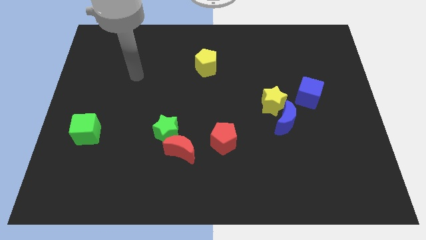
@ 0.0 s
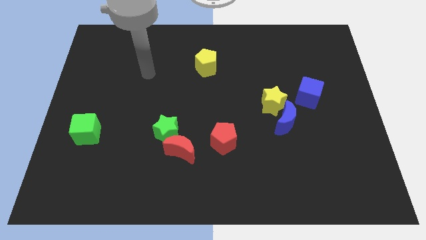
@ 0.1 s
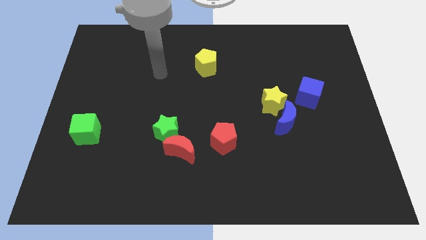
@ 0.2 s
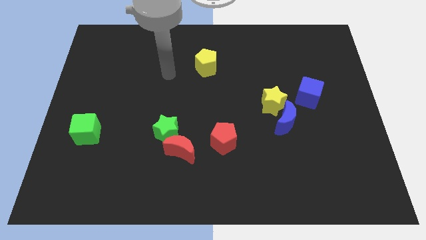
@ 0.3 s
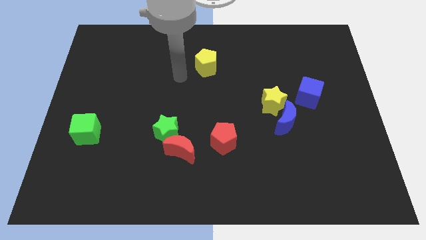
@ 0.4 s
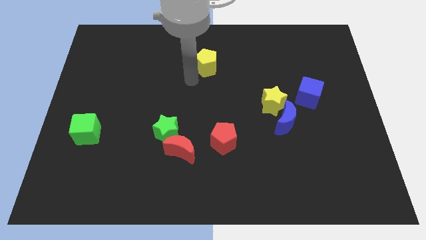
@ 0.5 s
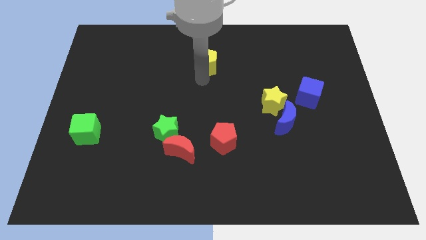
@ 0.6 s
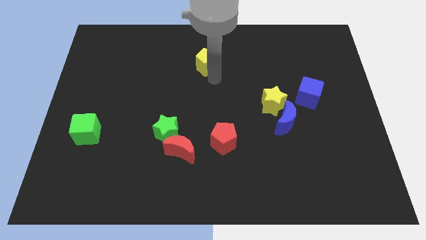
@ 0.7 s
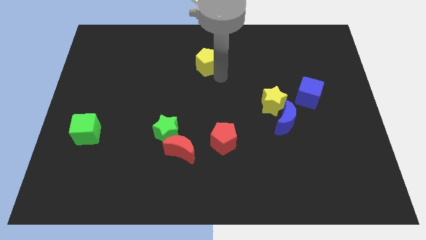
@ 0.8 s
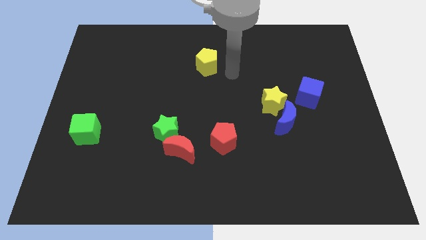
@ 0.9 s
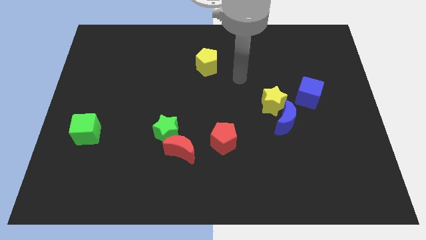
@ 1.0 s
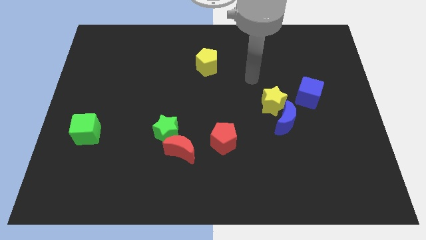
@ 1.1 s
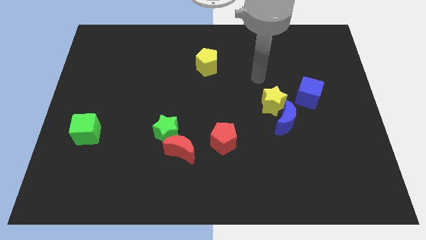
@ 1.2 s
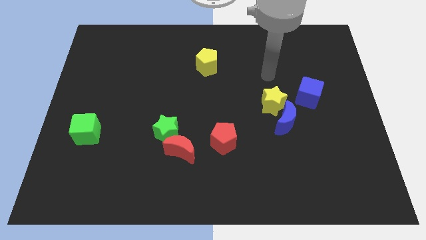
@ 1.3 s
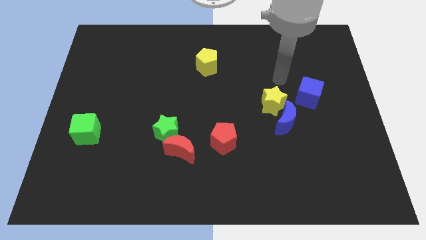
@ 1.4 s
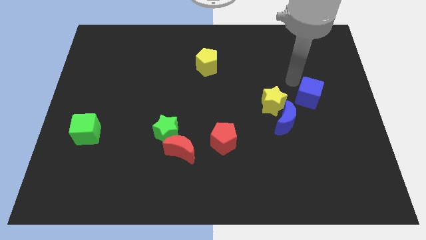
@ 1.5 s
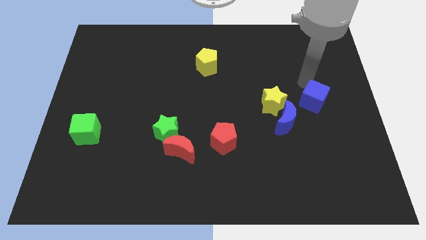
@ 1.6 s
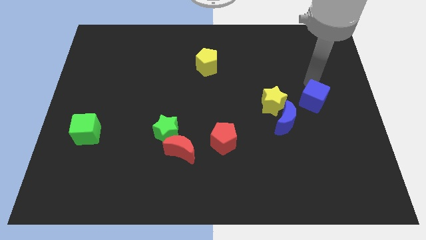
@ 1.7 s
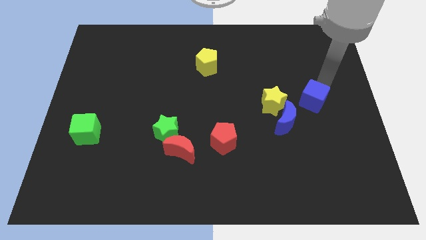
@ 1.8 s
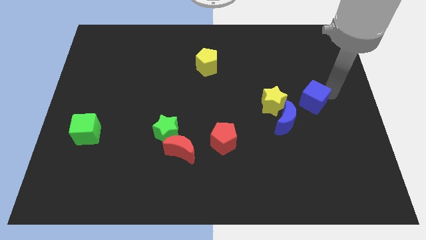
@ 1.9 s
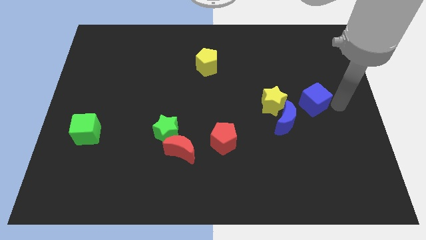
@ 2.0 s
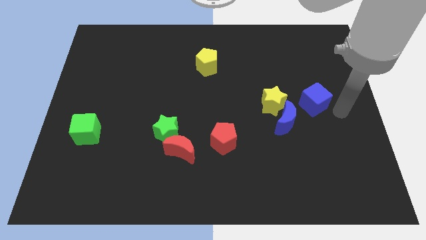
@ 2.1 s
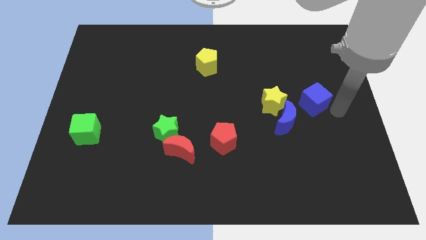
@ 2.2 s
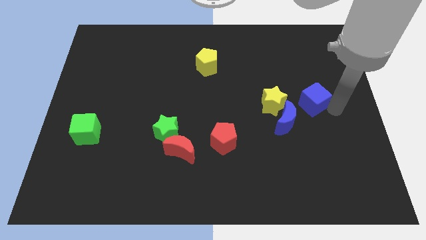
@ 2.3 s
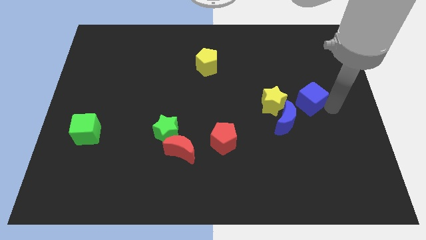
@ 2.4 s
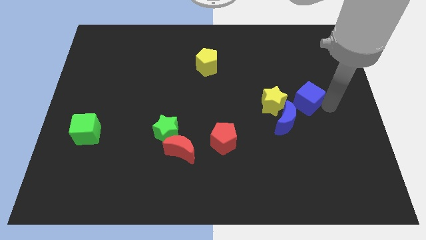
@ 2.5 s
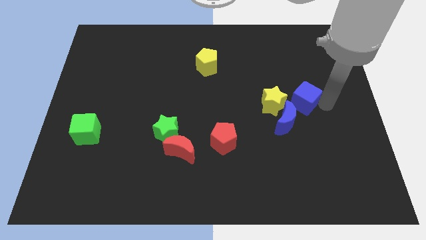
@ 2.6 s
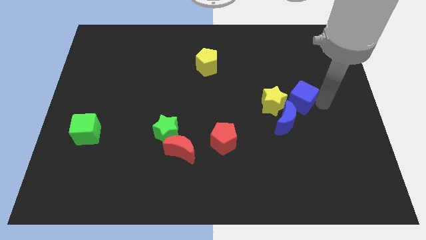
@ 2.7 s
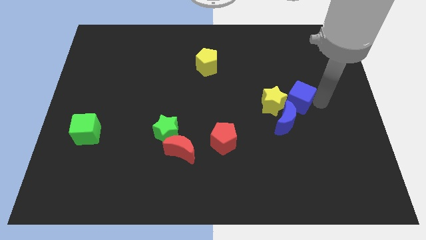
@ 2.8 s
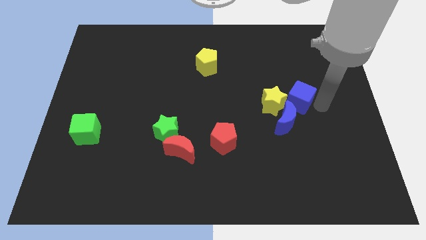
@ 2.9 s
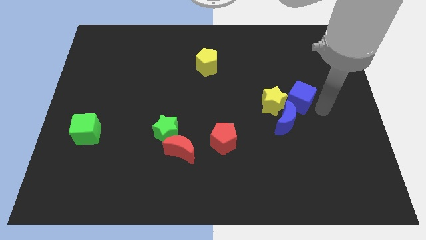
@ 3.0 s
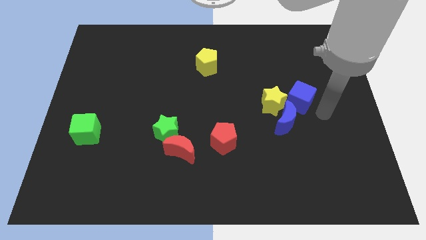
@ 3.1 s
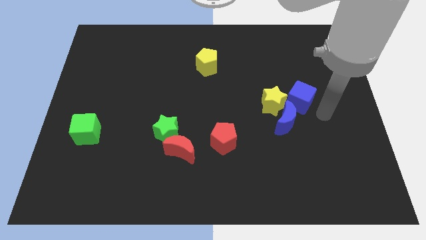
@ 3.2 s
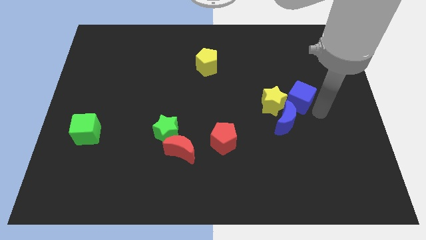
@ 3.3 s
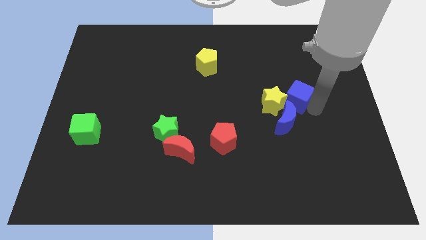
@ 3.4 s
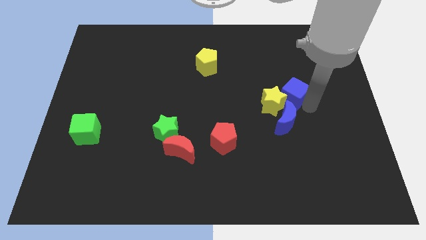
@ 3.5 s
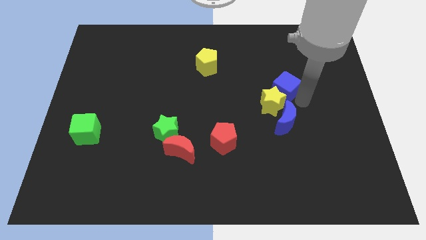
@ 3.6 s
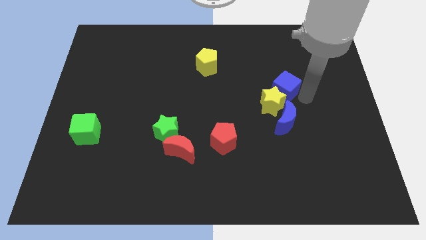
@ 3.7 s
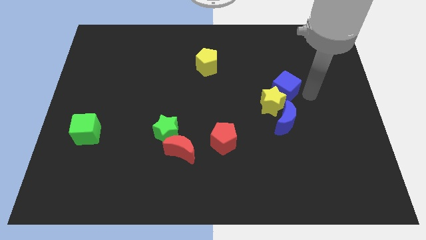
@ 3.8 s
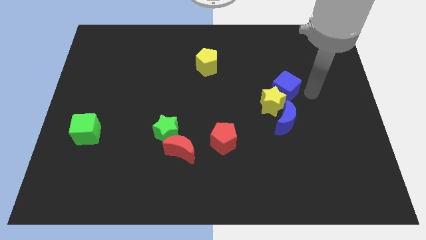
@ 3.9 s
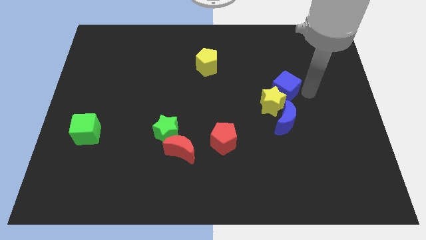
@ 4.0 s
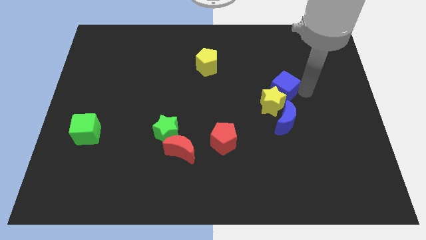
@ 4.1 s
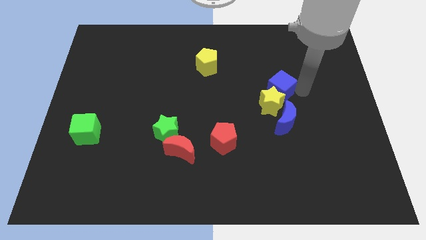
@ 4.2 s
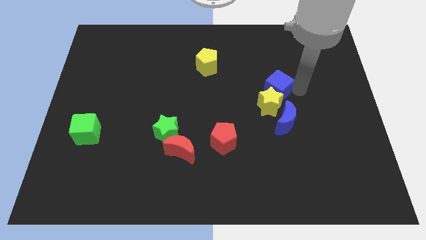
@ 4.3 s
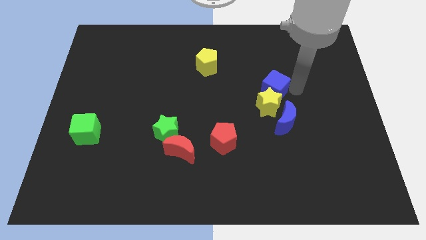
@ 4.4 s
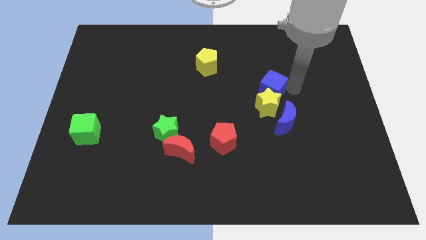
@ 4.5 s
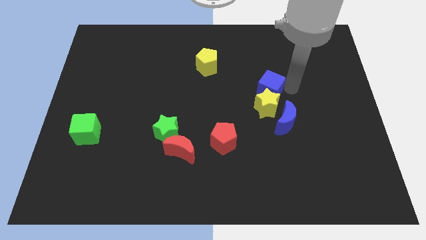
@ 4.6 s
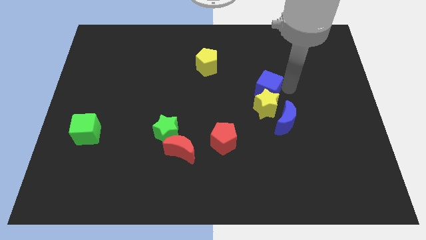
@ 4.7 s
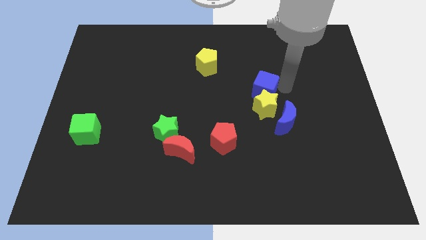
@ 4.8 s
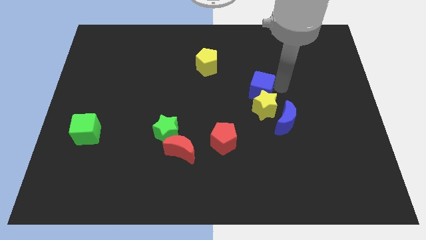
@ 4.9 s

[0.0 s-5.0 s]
push the blue cube to the center

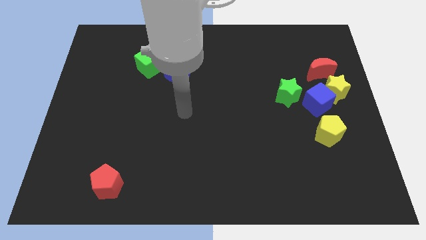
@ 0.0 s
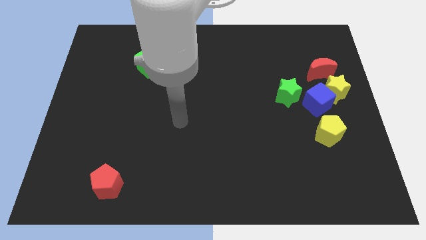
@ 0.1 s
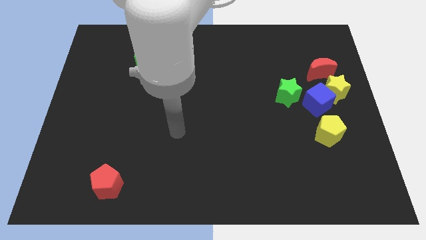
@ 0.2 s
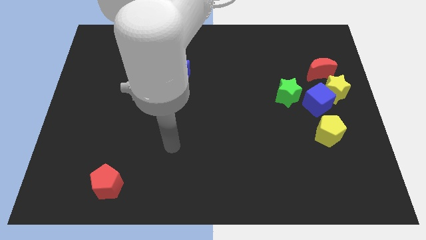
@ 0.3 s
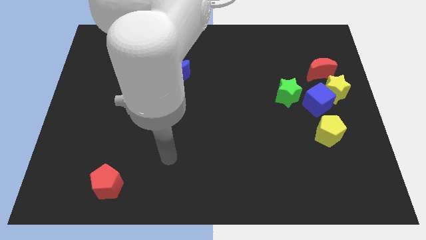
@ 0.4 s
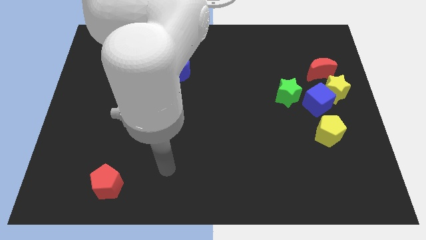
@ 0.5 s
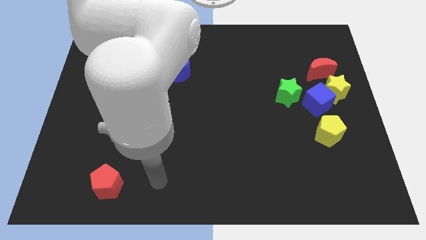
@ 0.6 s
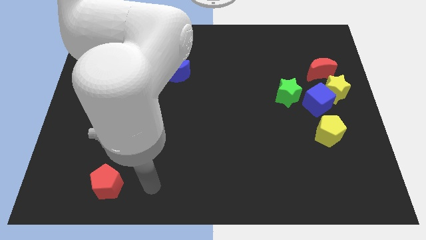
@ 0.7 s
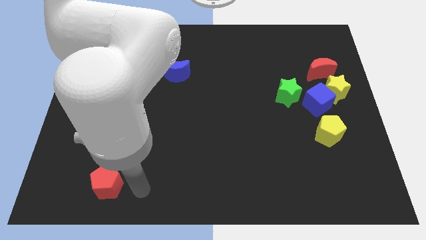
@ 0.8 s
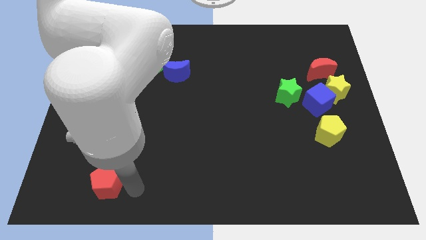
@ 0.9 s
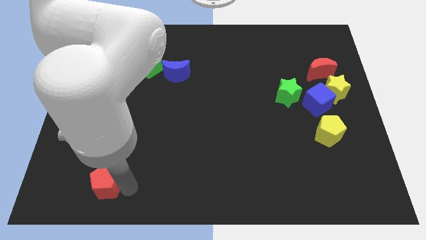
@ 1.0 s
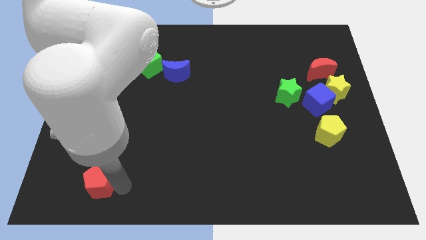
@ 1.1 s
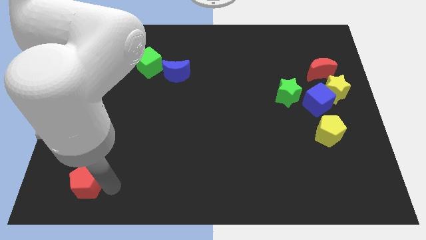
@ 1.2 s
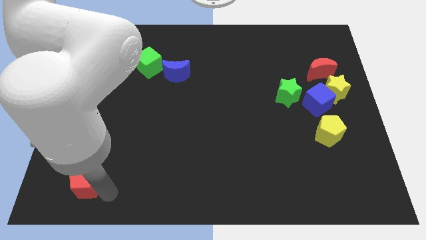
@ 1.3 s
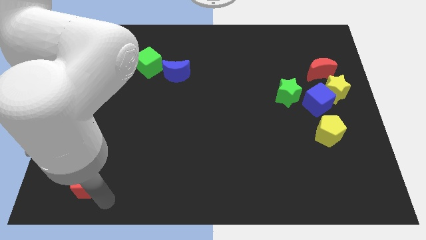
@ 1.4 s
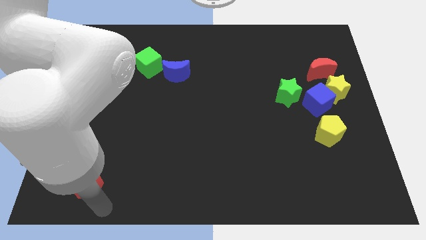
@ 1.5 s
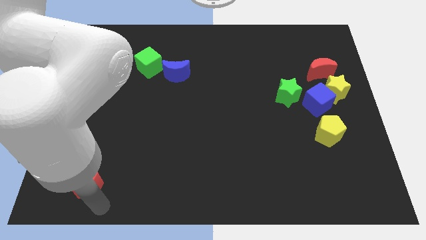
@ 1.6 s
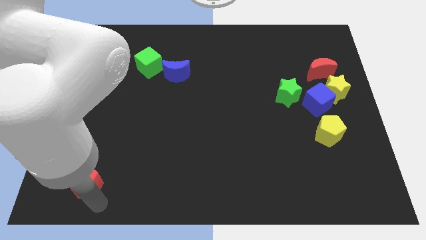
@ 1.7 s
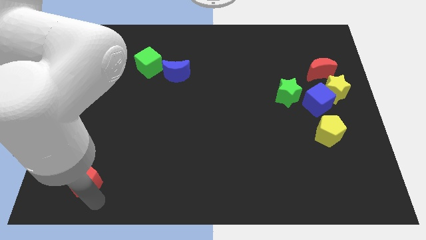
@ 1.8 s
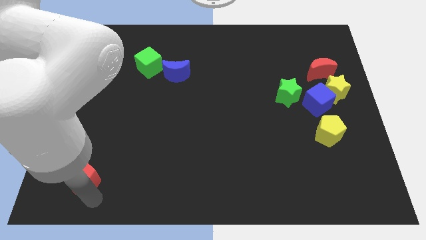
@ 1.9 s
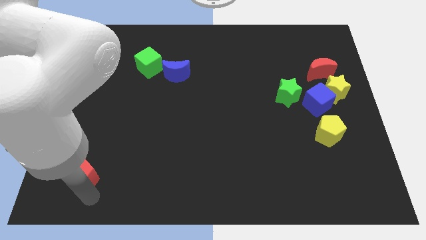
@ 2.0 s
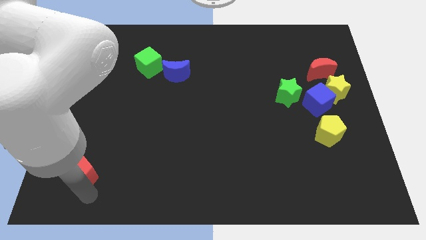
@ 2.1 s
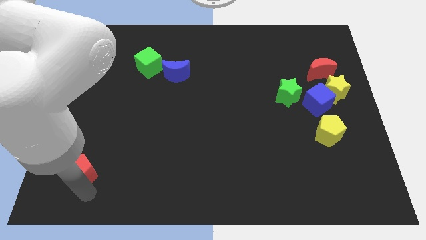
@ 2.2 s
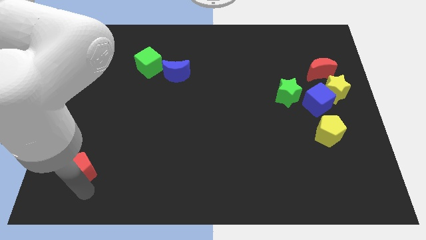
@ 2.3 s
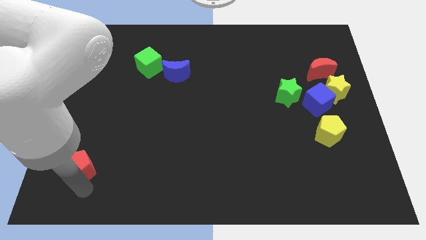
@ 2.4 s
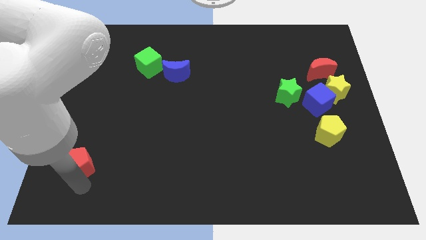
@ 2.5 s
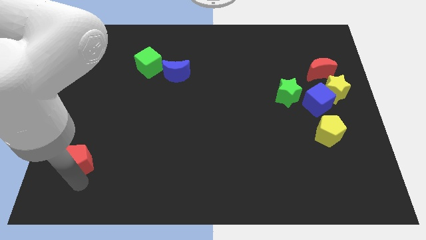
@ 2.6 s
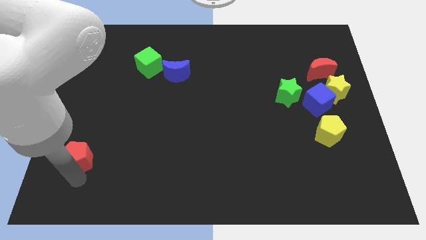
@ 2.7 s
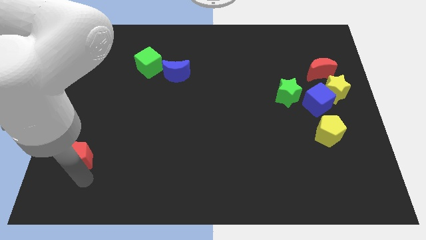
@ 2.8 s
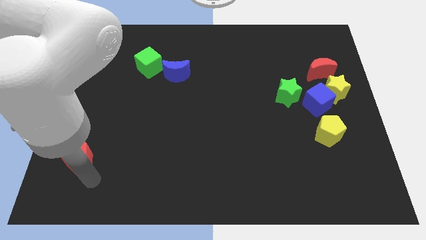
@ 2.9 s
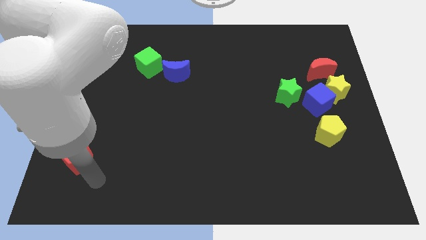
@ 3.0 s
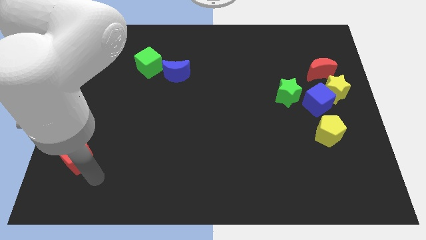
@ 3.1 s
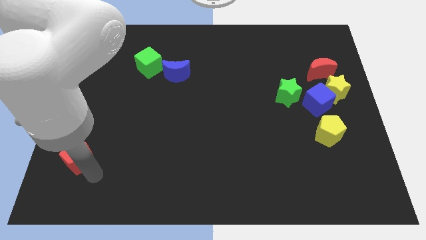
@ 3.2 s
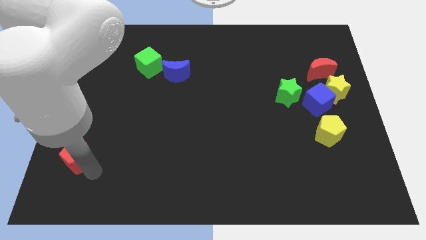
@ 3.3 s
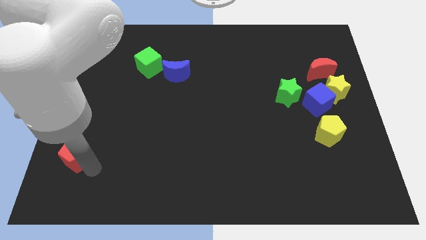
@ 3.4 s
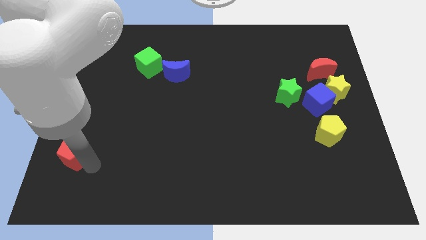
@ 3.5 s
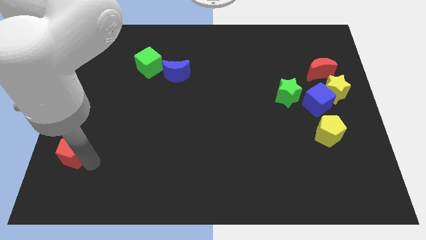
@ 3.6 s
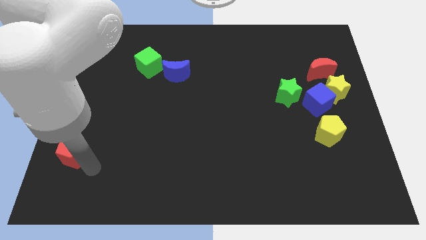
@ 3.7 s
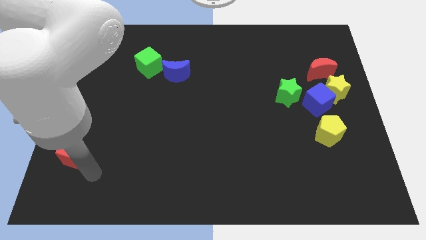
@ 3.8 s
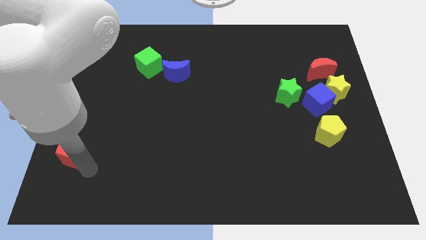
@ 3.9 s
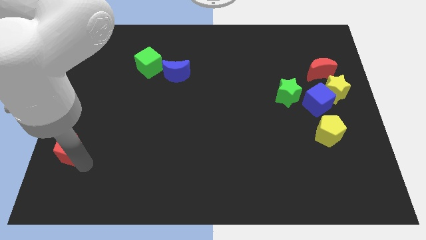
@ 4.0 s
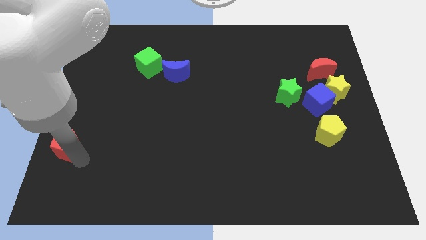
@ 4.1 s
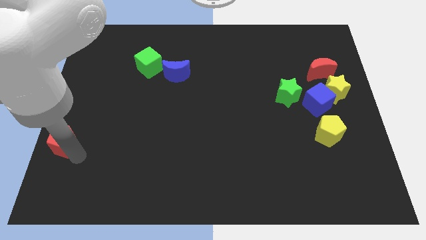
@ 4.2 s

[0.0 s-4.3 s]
put the red pentagon to the left side of the board
